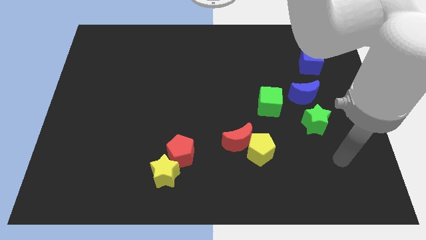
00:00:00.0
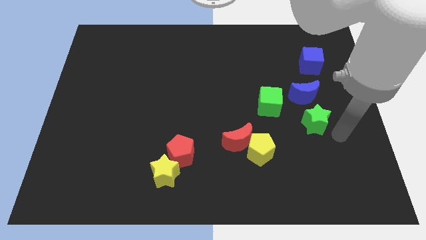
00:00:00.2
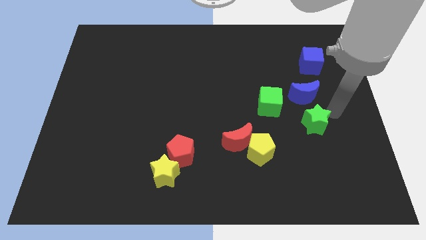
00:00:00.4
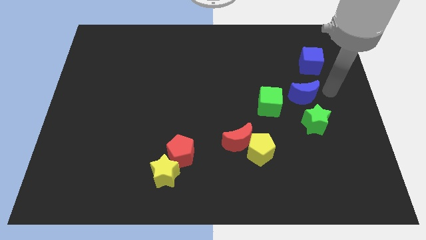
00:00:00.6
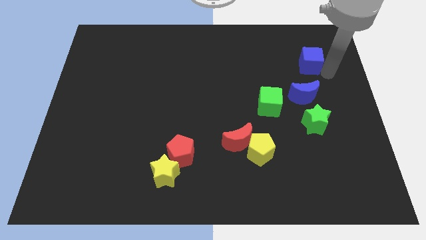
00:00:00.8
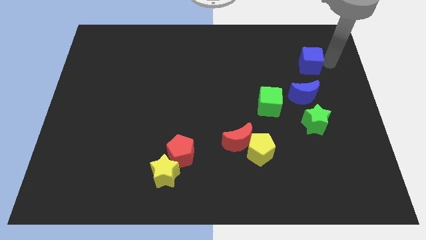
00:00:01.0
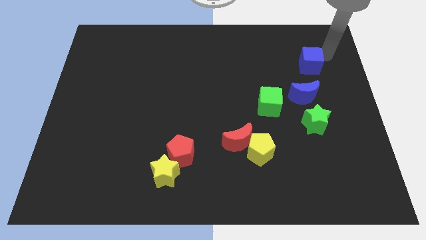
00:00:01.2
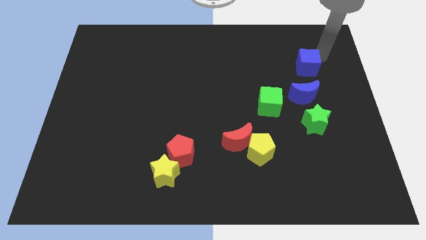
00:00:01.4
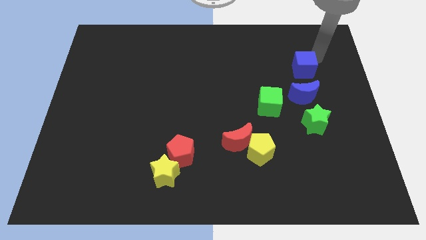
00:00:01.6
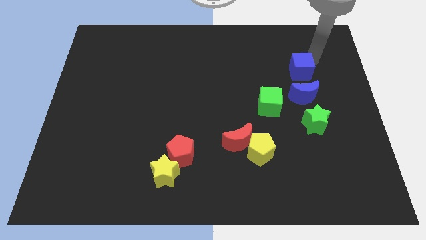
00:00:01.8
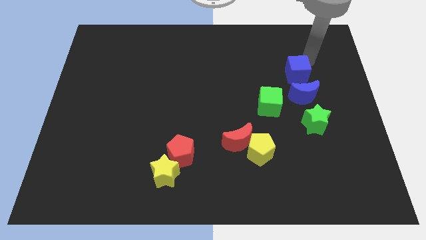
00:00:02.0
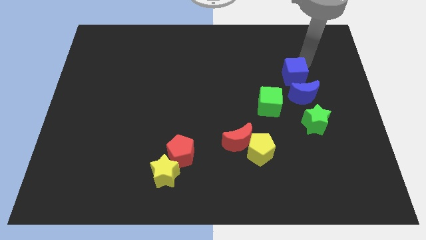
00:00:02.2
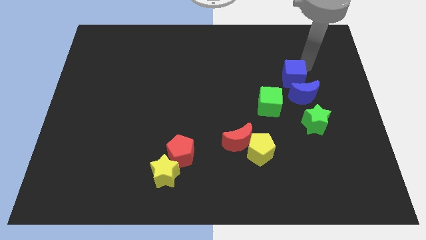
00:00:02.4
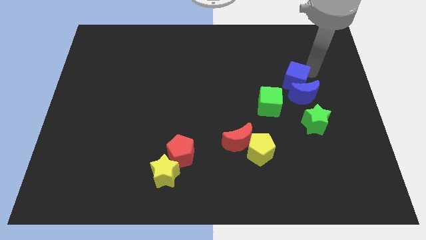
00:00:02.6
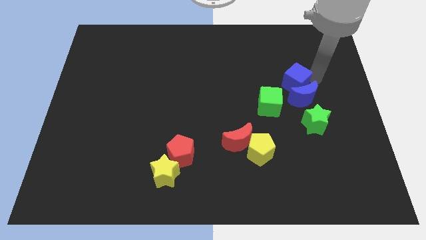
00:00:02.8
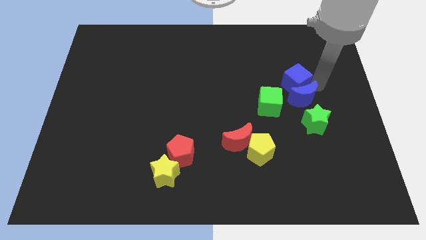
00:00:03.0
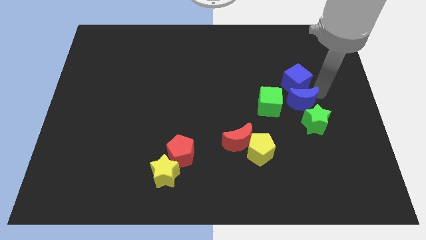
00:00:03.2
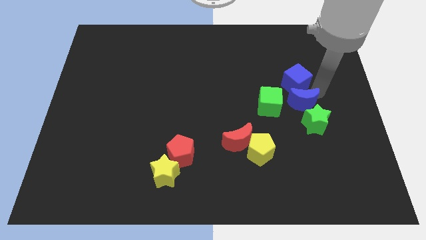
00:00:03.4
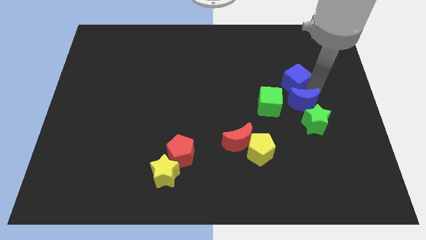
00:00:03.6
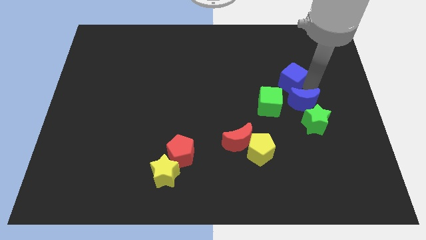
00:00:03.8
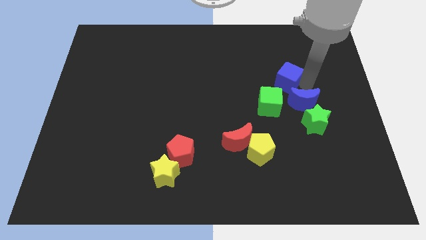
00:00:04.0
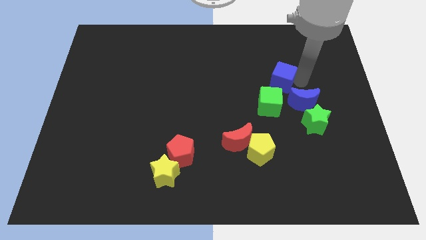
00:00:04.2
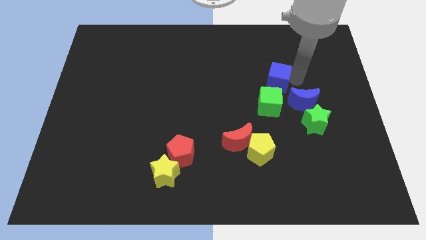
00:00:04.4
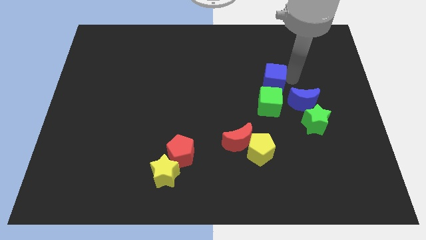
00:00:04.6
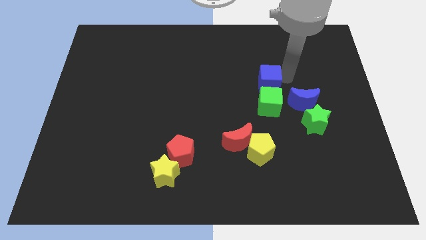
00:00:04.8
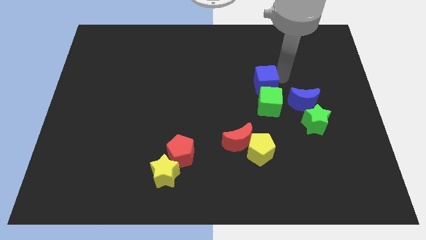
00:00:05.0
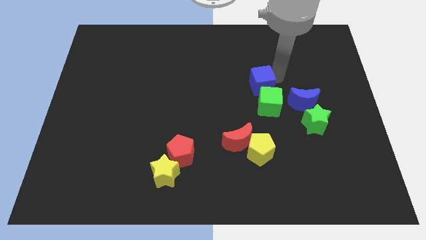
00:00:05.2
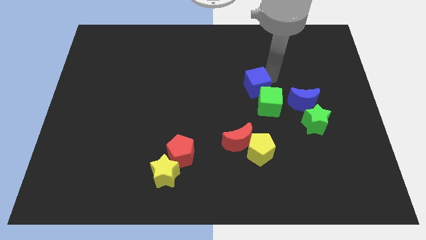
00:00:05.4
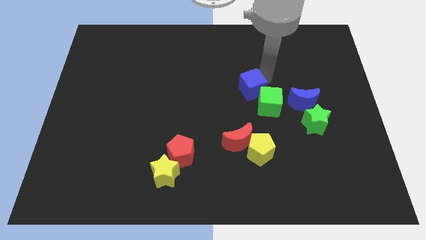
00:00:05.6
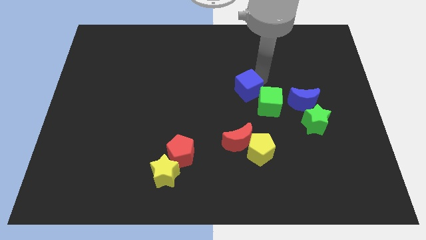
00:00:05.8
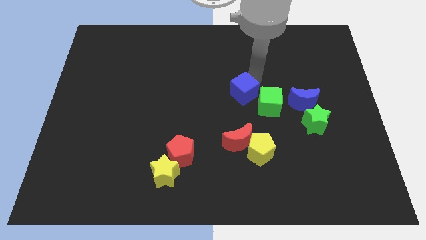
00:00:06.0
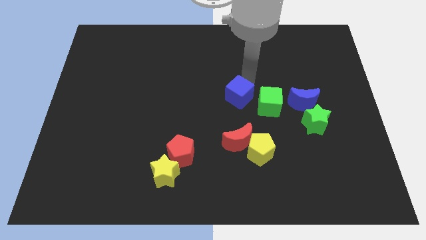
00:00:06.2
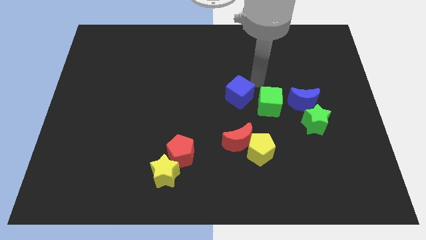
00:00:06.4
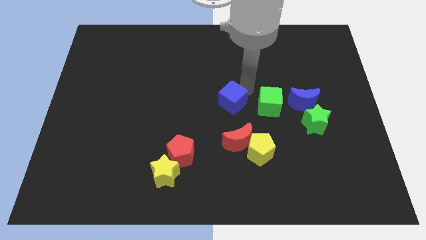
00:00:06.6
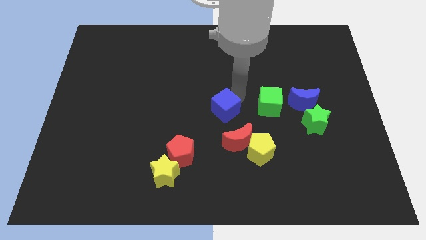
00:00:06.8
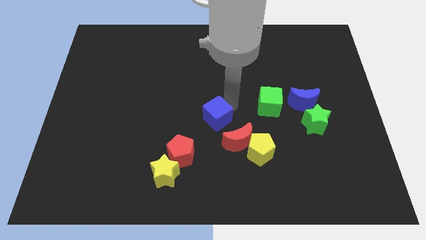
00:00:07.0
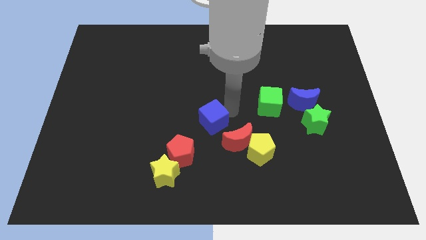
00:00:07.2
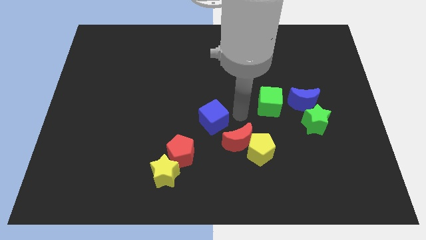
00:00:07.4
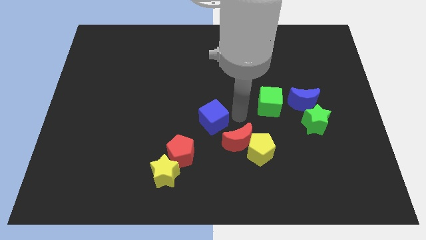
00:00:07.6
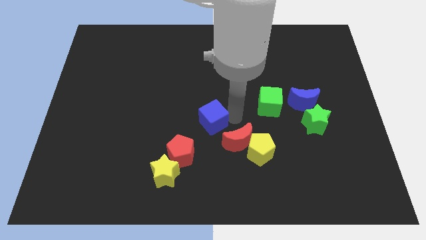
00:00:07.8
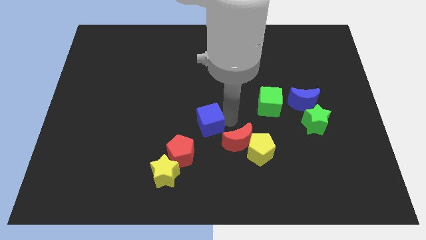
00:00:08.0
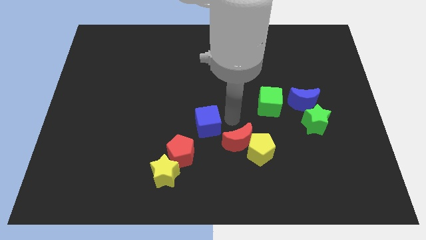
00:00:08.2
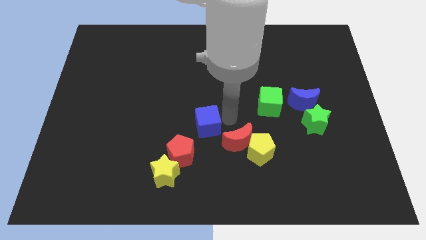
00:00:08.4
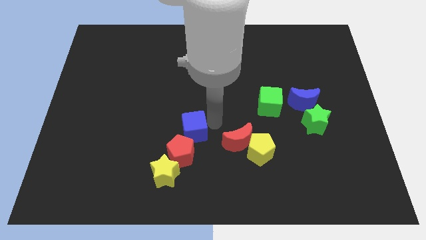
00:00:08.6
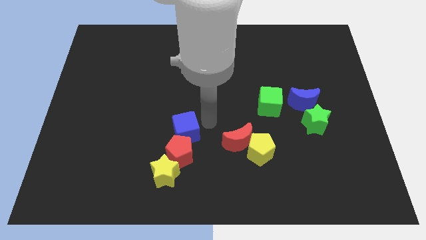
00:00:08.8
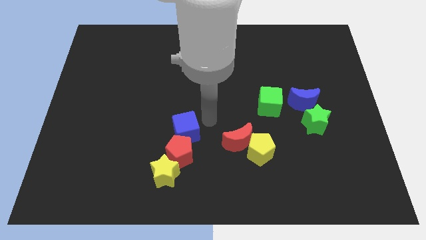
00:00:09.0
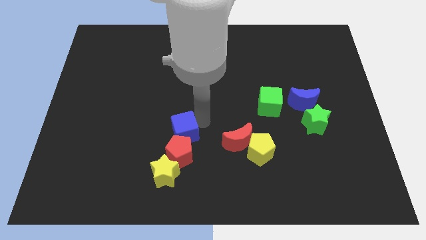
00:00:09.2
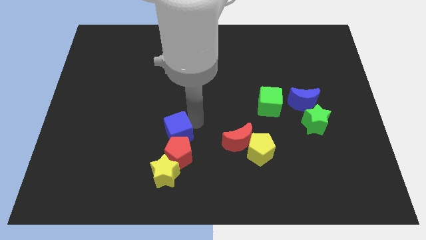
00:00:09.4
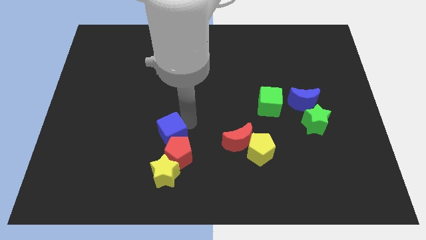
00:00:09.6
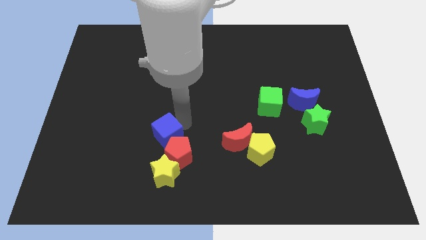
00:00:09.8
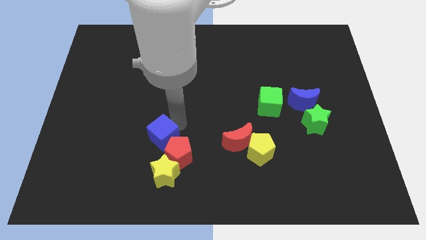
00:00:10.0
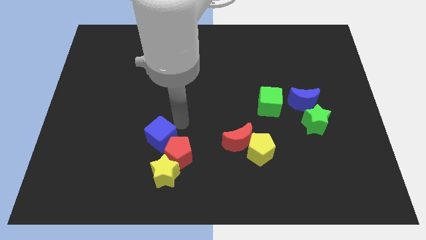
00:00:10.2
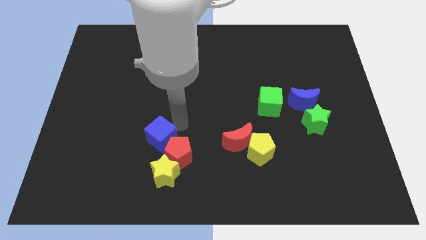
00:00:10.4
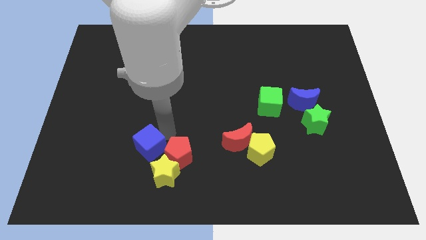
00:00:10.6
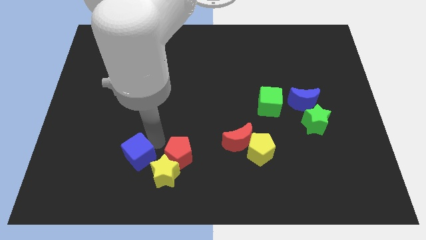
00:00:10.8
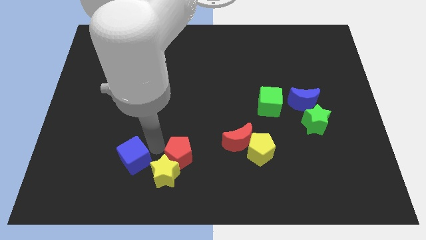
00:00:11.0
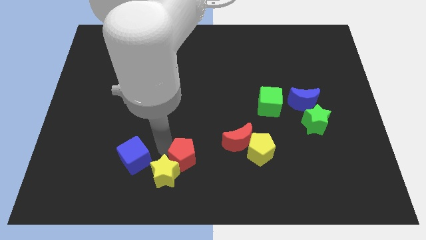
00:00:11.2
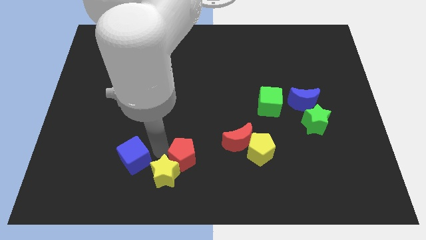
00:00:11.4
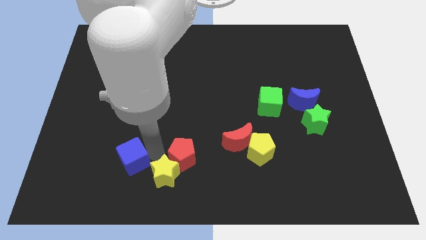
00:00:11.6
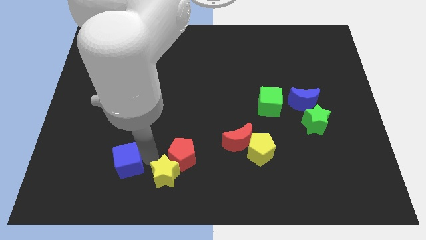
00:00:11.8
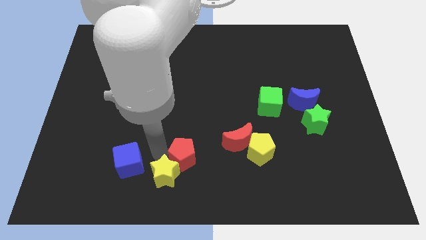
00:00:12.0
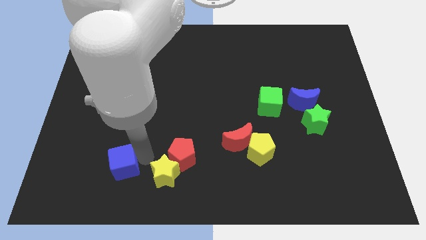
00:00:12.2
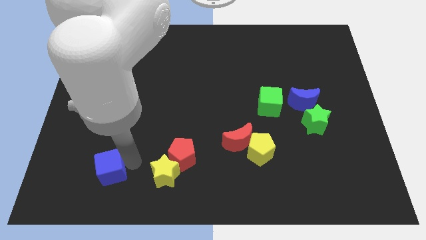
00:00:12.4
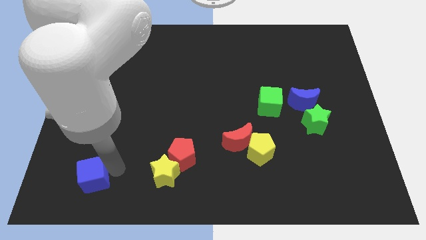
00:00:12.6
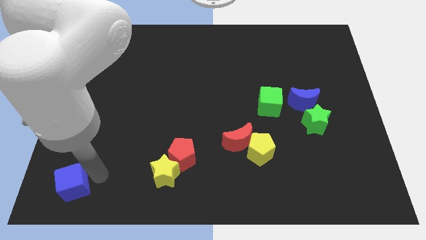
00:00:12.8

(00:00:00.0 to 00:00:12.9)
move the blue cube to the bottom left corner

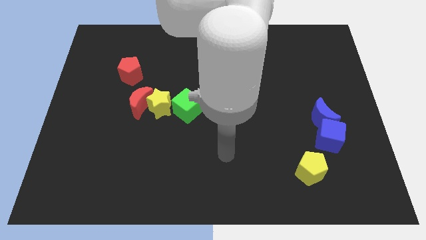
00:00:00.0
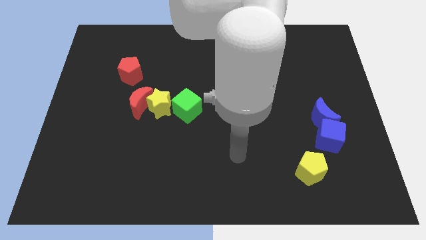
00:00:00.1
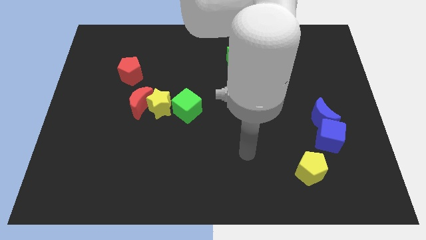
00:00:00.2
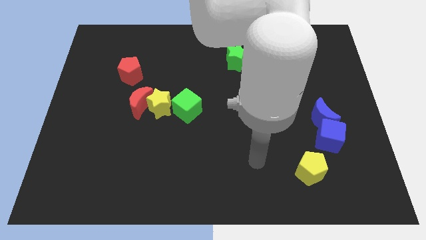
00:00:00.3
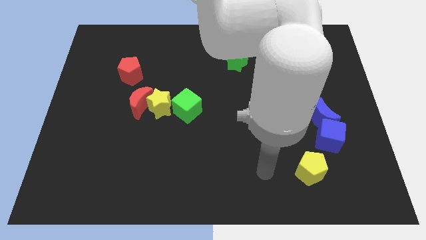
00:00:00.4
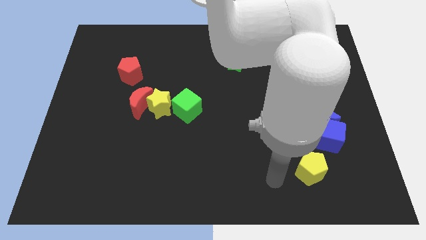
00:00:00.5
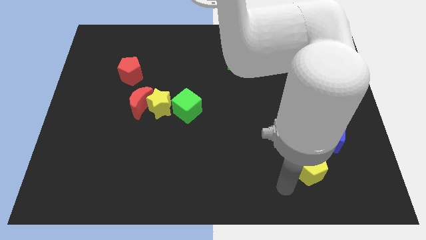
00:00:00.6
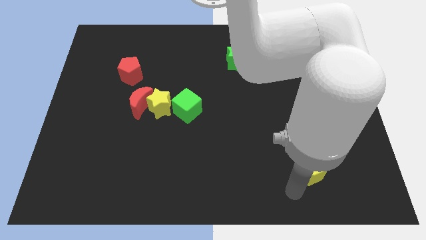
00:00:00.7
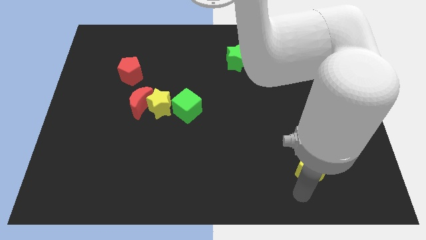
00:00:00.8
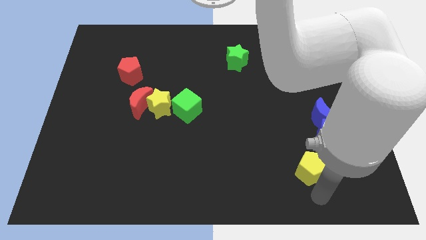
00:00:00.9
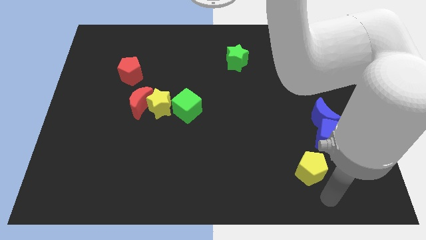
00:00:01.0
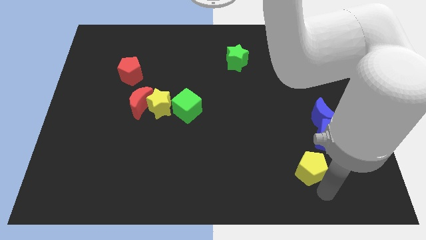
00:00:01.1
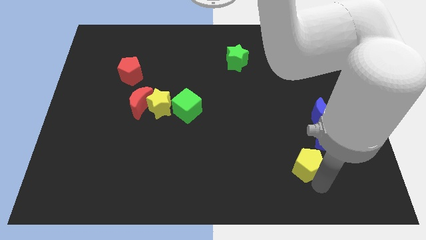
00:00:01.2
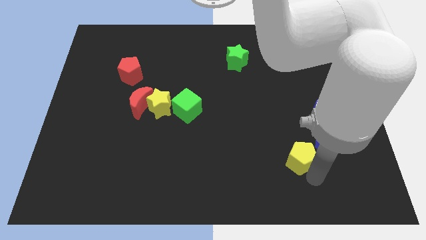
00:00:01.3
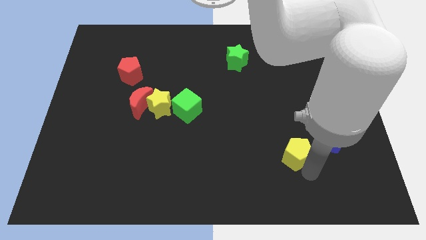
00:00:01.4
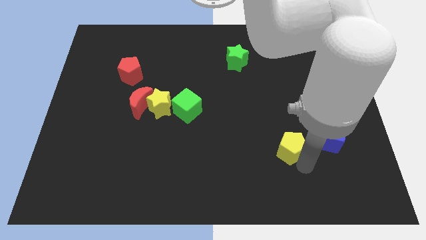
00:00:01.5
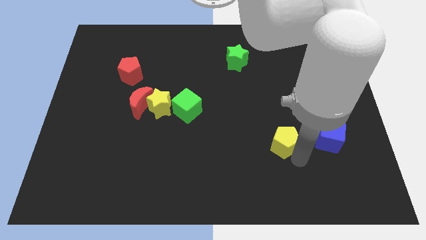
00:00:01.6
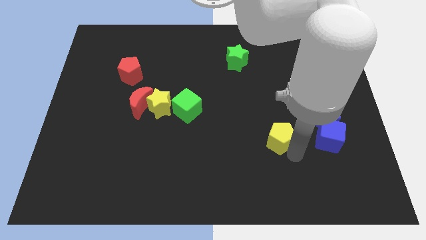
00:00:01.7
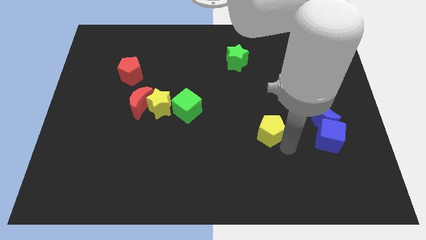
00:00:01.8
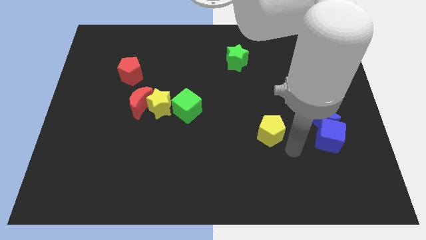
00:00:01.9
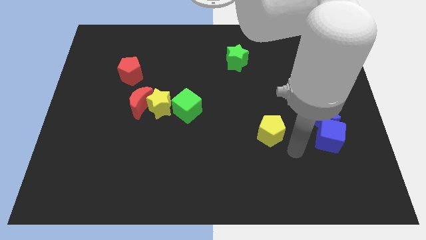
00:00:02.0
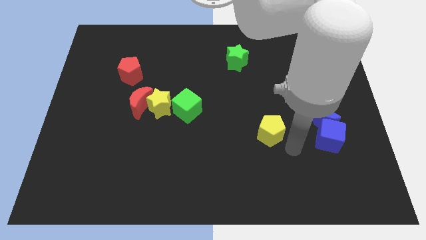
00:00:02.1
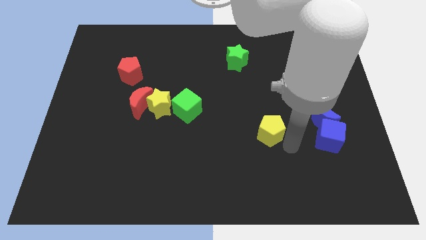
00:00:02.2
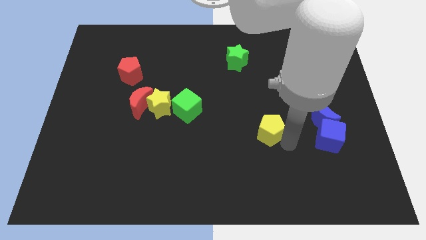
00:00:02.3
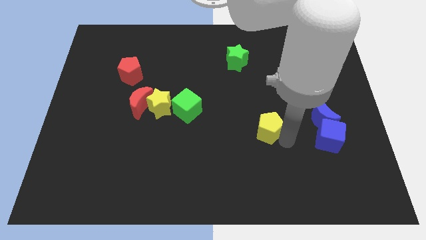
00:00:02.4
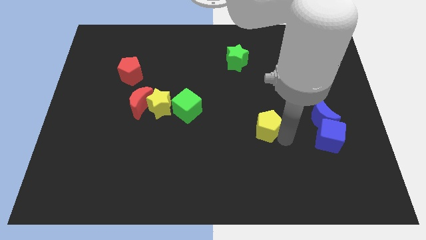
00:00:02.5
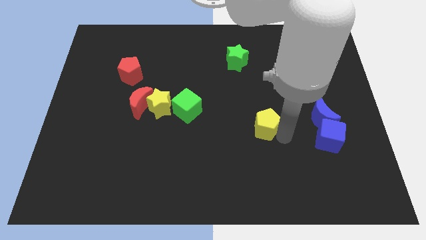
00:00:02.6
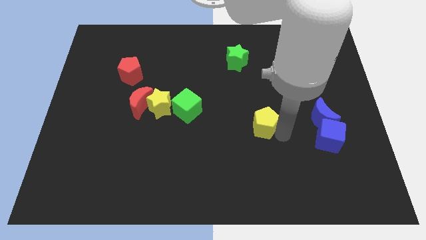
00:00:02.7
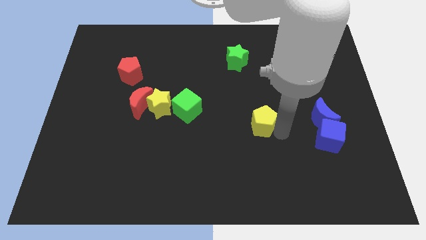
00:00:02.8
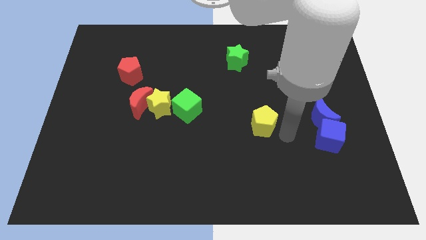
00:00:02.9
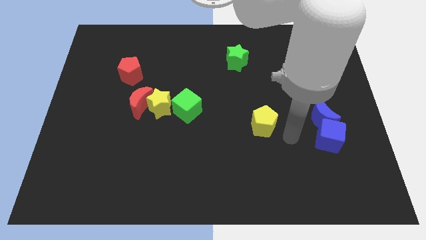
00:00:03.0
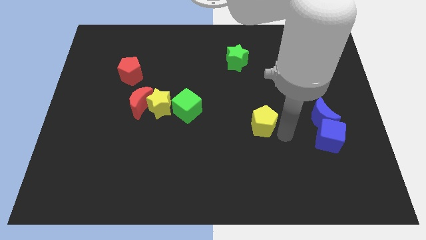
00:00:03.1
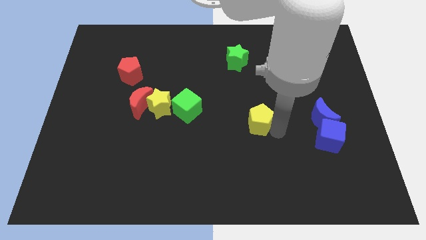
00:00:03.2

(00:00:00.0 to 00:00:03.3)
move the yellow pentagon to the center
